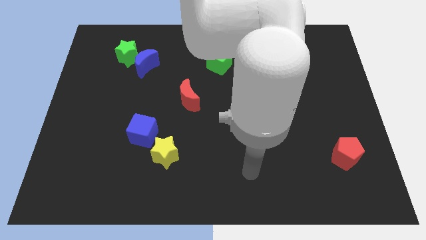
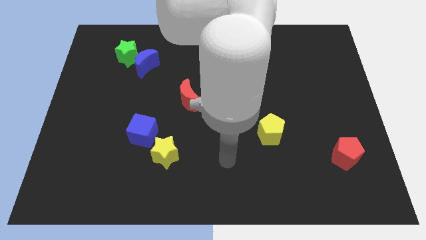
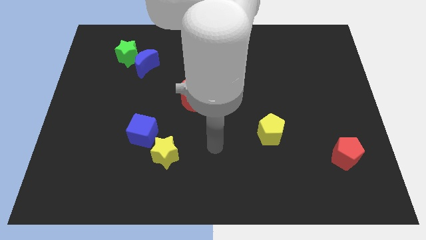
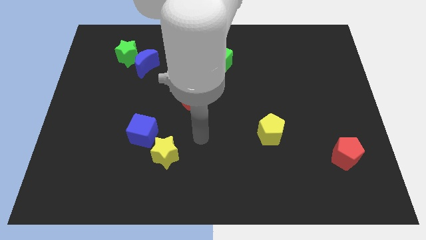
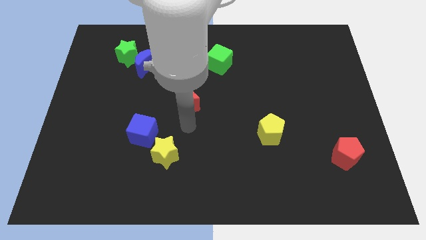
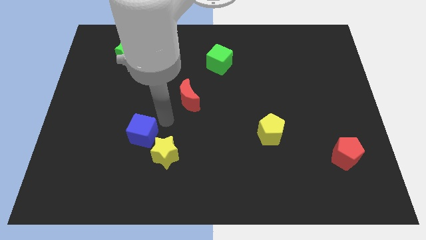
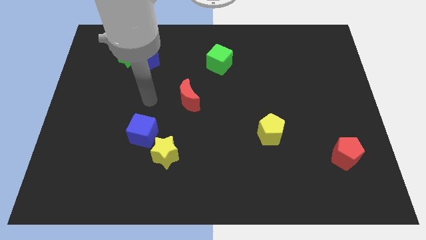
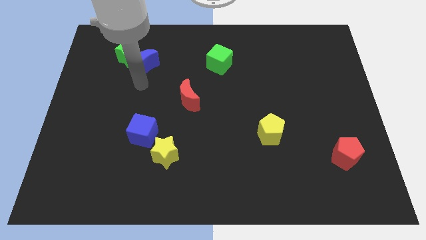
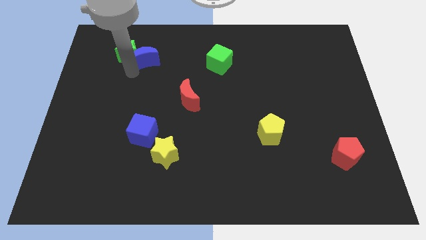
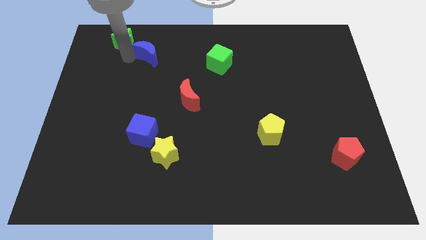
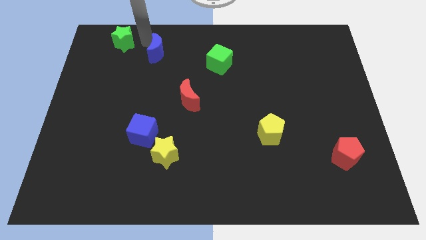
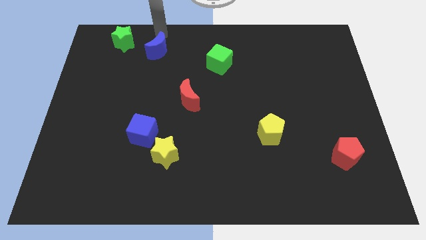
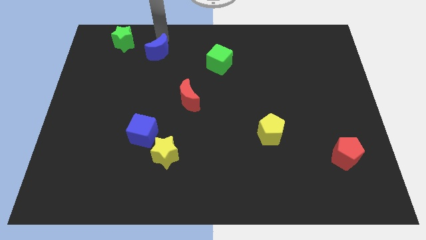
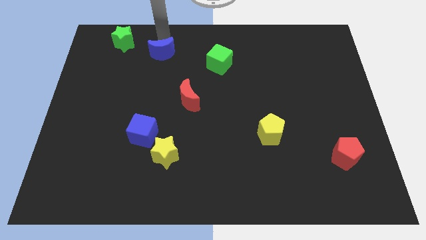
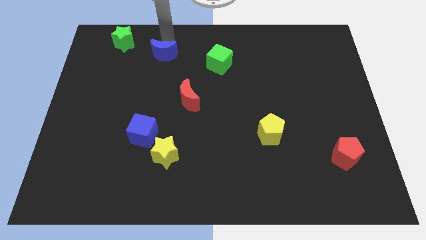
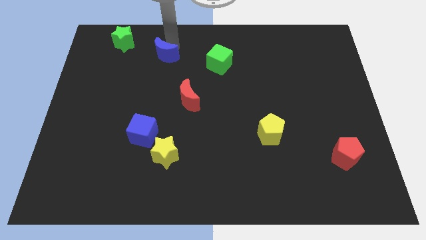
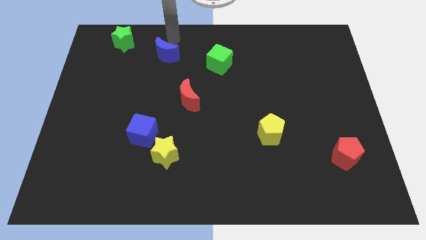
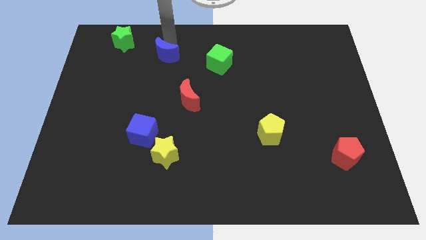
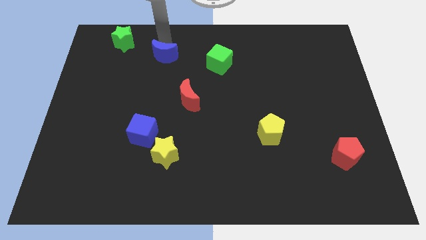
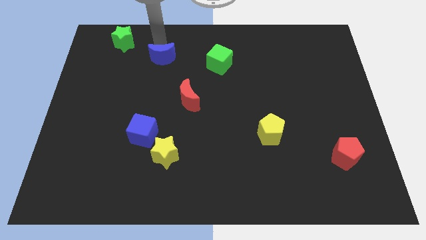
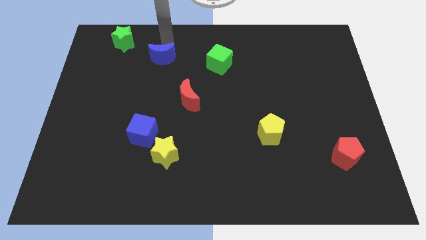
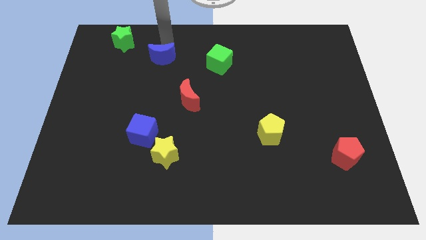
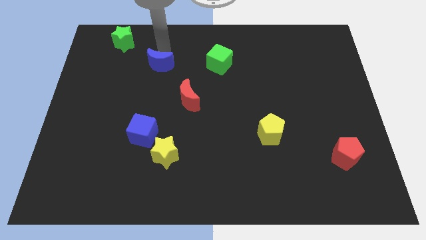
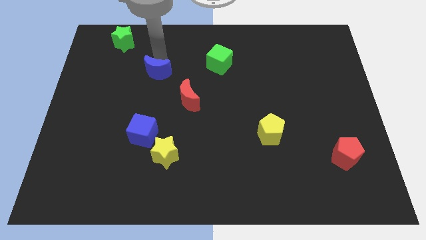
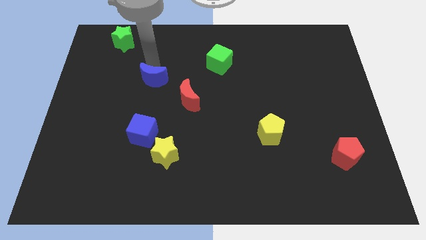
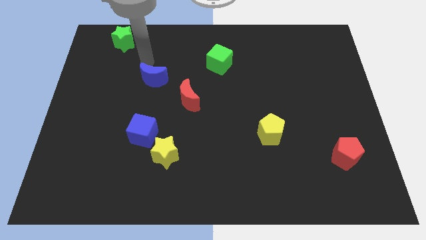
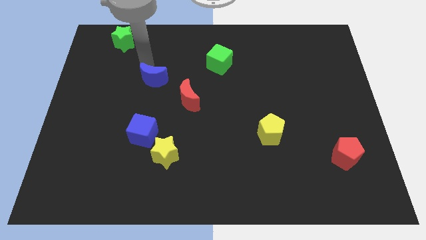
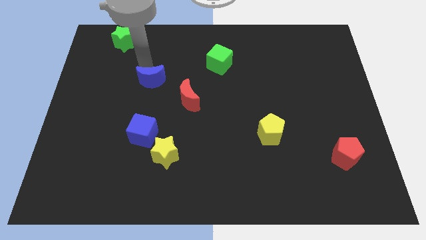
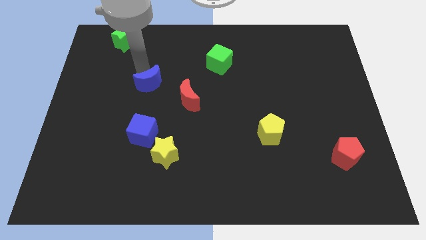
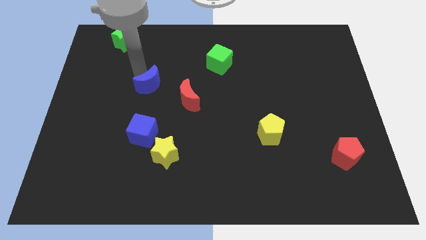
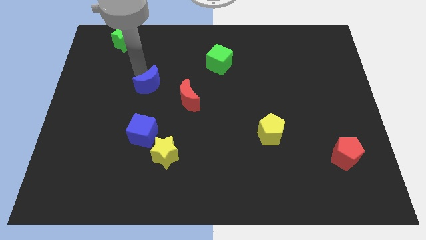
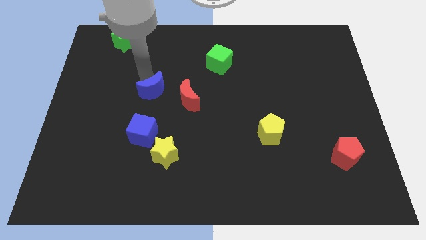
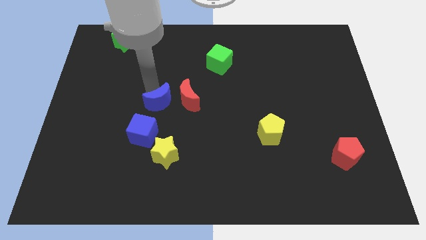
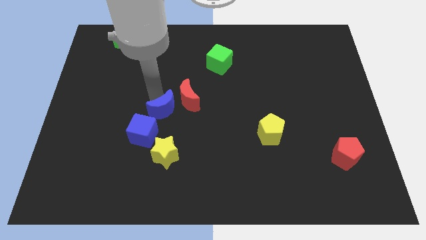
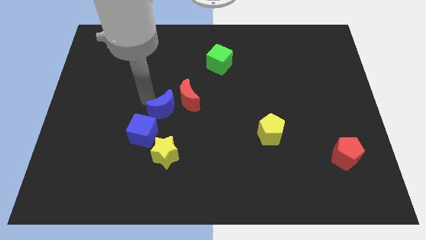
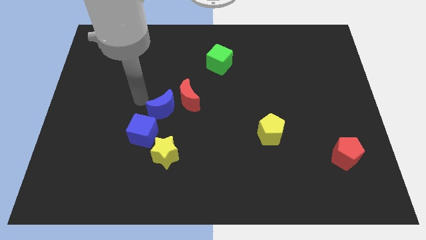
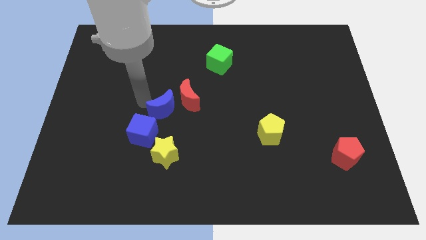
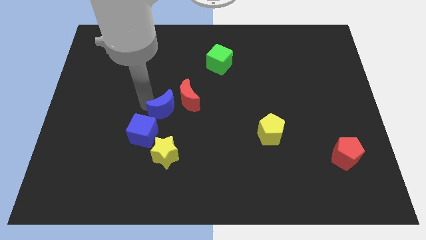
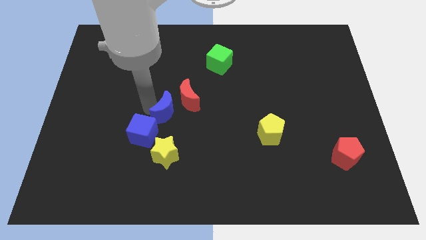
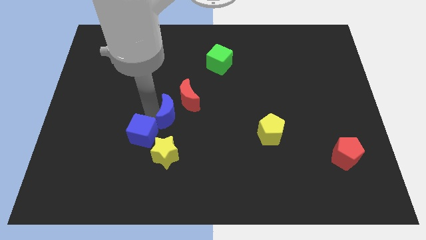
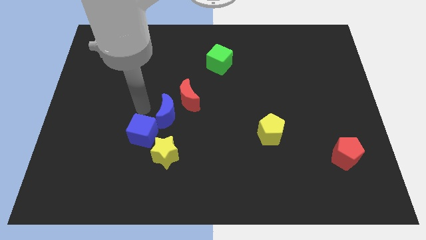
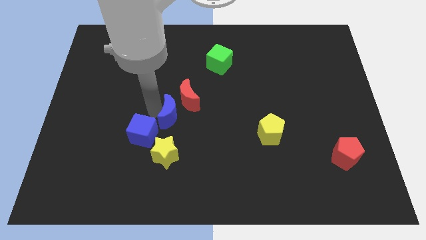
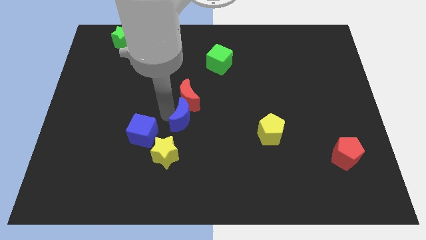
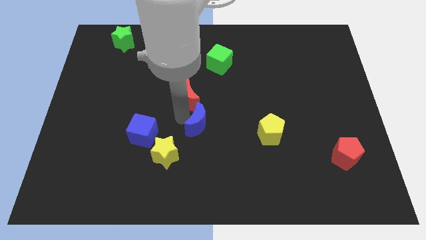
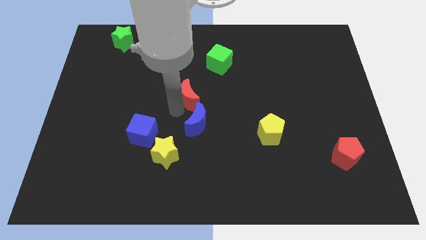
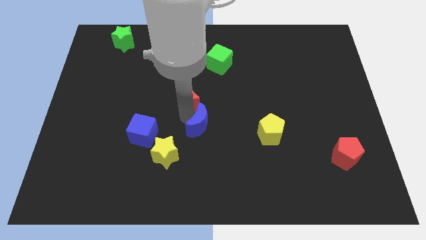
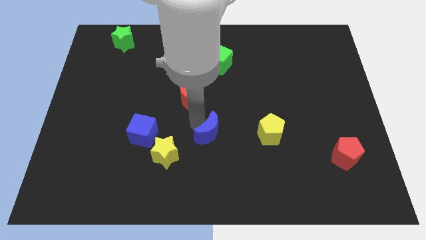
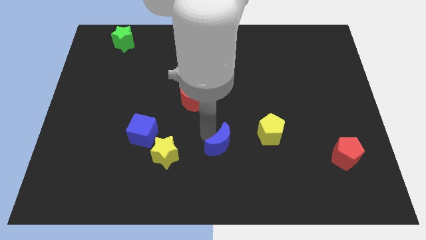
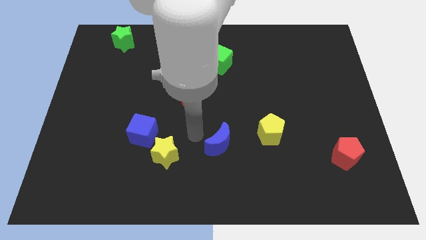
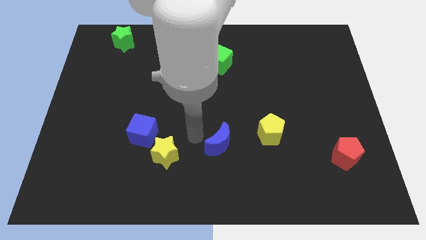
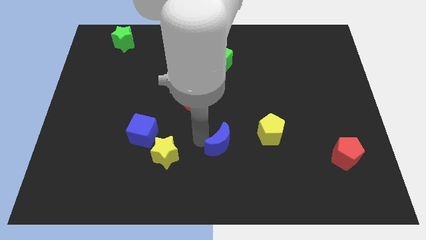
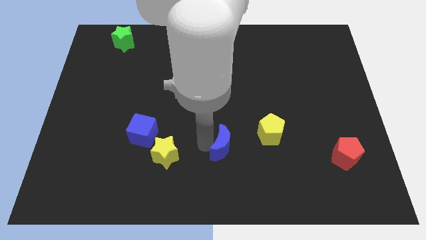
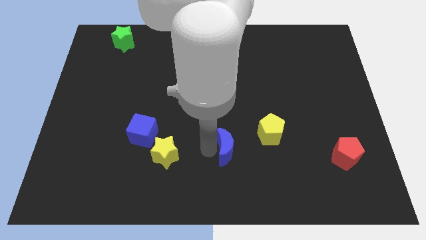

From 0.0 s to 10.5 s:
move the blue moon diagonally down and to the left of the yellow pentagon
